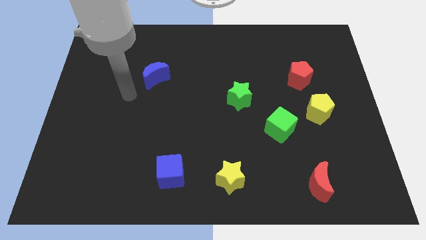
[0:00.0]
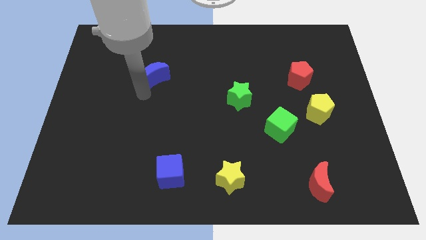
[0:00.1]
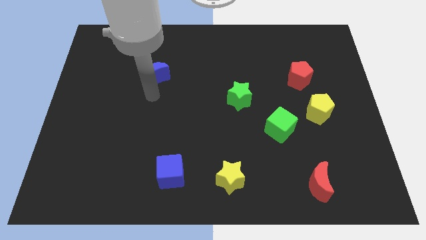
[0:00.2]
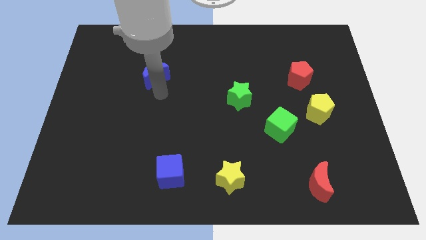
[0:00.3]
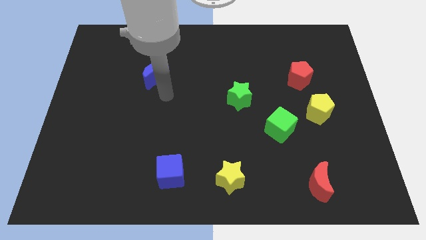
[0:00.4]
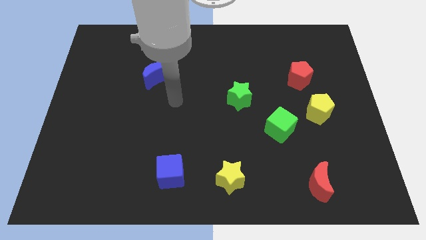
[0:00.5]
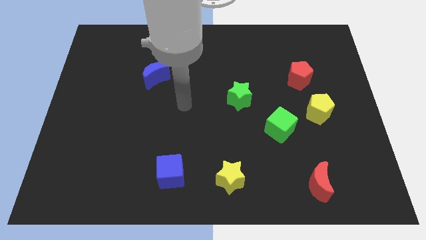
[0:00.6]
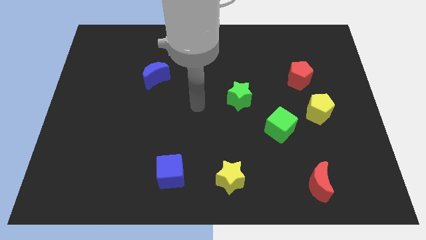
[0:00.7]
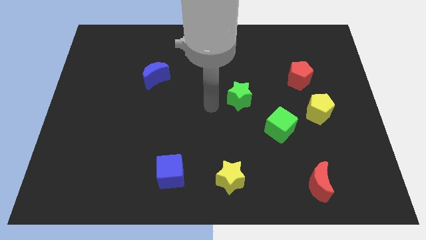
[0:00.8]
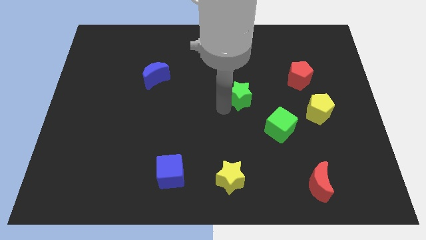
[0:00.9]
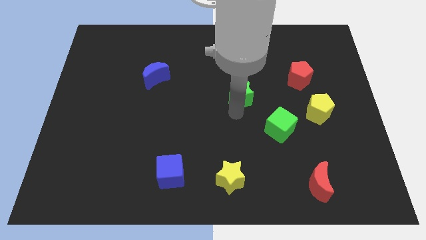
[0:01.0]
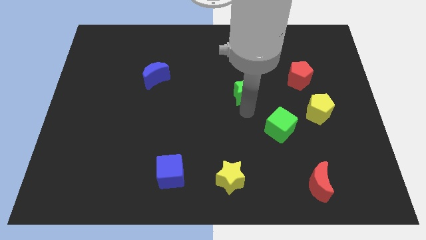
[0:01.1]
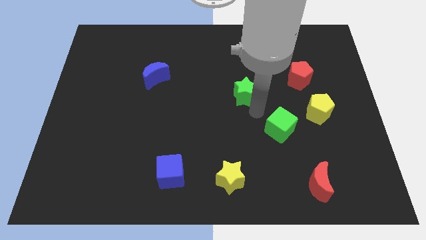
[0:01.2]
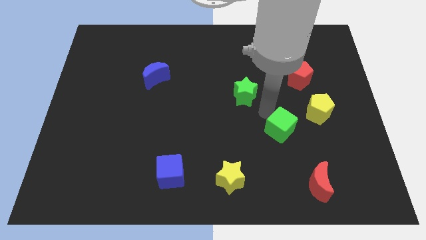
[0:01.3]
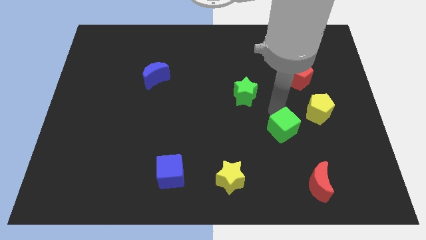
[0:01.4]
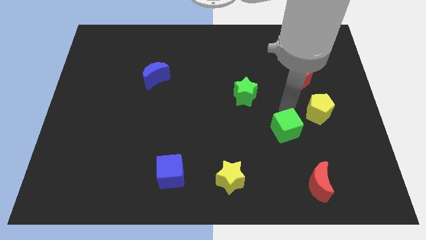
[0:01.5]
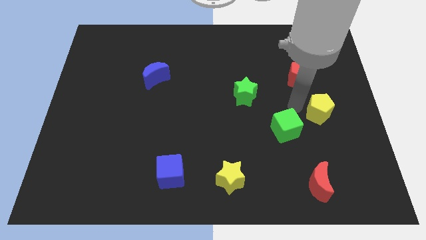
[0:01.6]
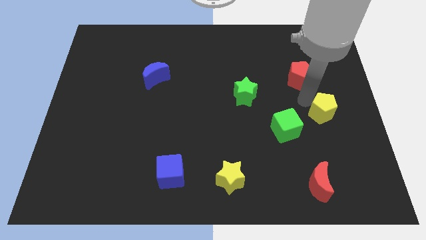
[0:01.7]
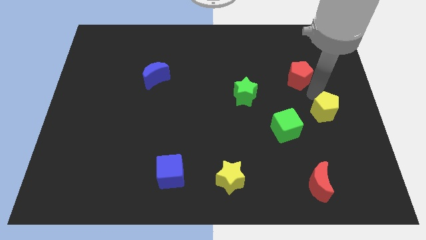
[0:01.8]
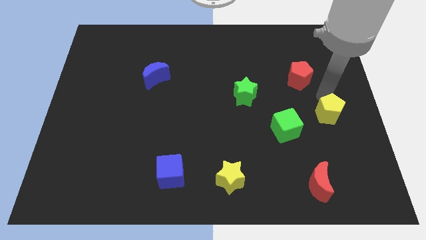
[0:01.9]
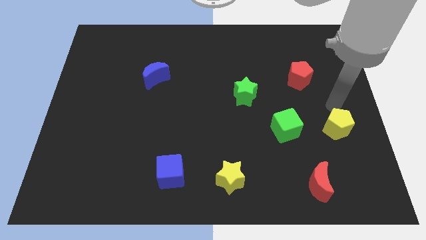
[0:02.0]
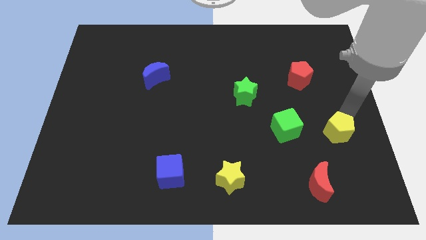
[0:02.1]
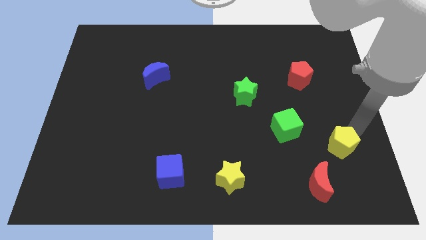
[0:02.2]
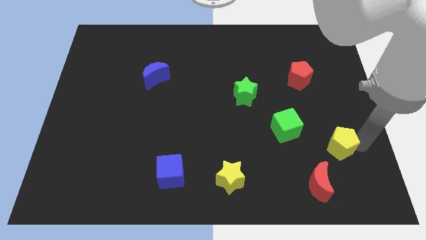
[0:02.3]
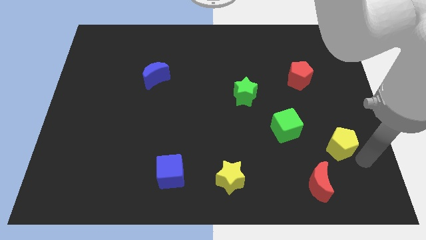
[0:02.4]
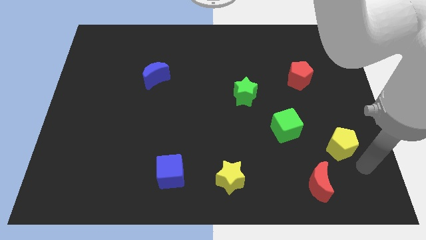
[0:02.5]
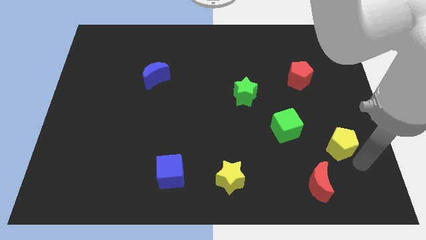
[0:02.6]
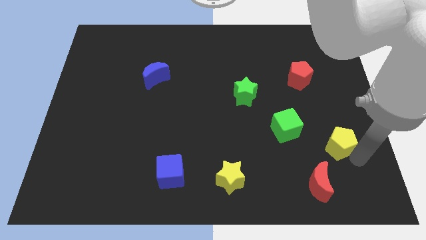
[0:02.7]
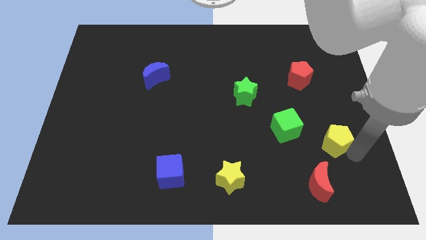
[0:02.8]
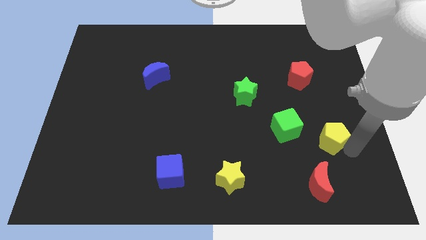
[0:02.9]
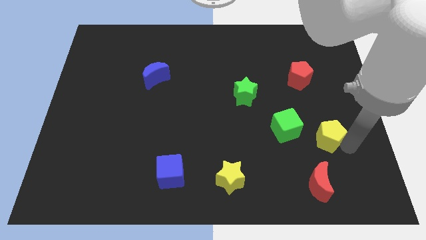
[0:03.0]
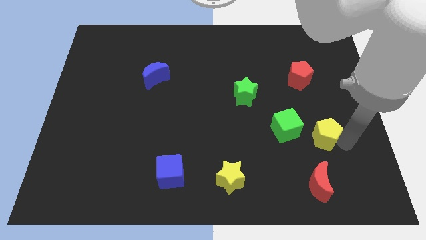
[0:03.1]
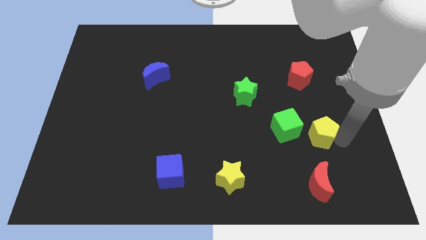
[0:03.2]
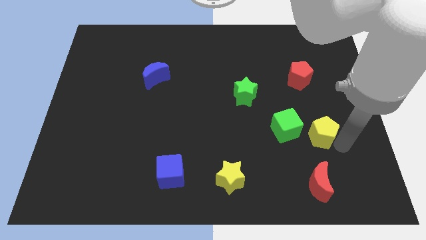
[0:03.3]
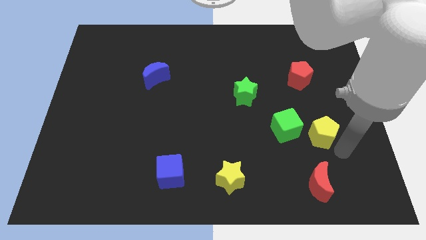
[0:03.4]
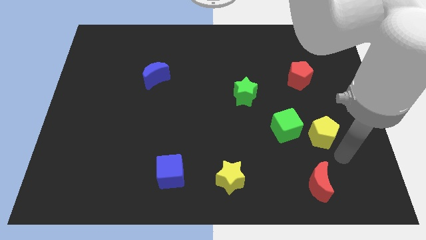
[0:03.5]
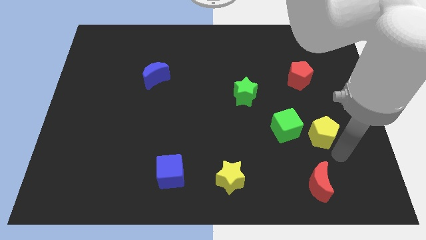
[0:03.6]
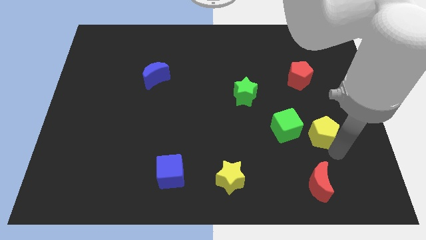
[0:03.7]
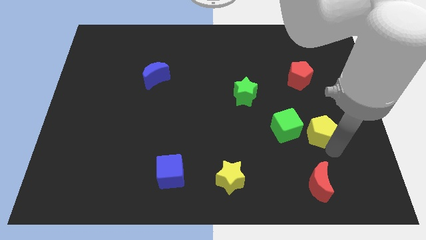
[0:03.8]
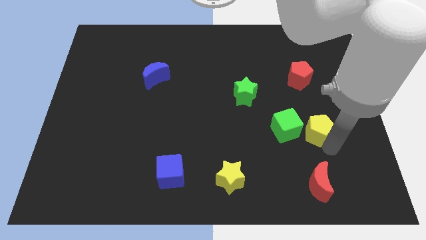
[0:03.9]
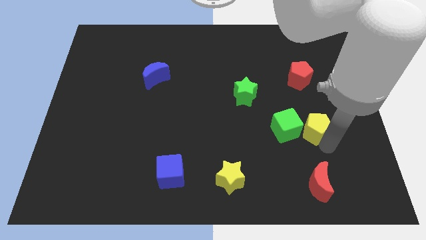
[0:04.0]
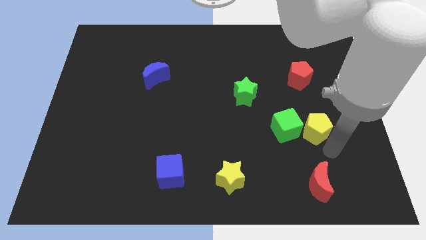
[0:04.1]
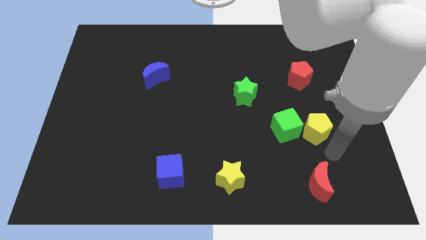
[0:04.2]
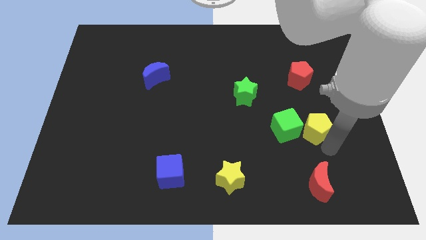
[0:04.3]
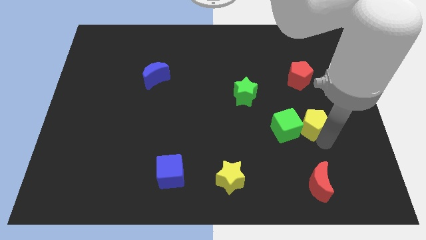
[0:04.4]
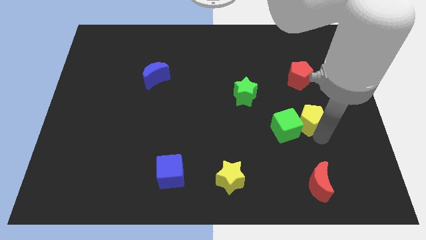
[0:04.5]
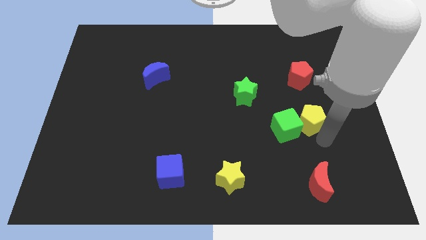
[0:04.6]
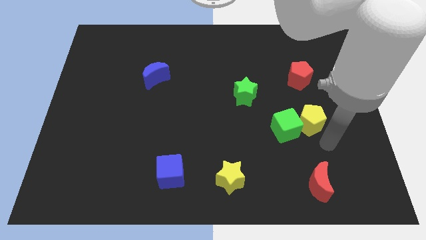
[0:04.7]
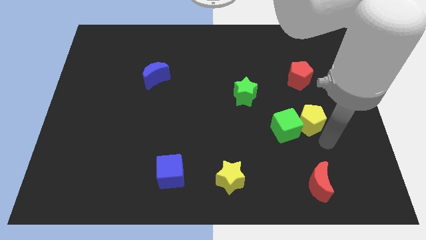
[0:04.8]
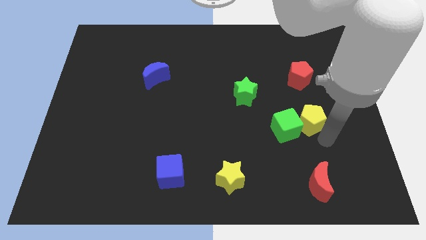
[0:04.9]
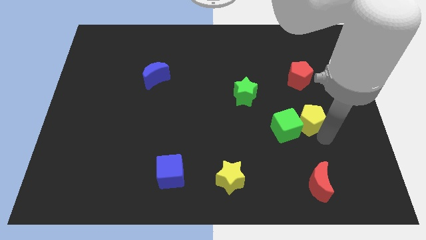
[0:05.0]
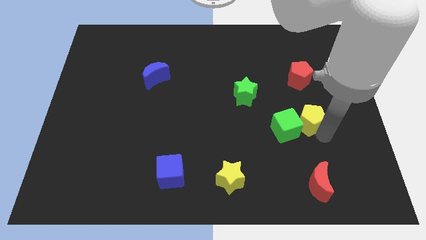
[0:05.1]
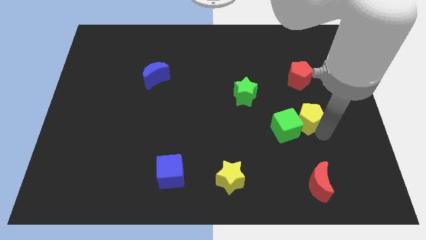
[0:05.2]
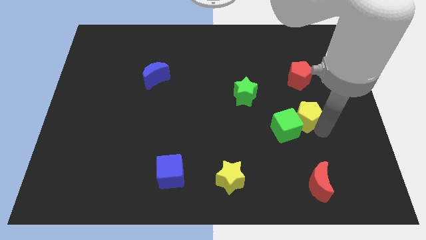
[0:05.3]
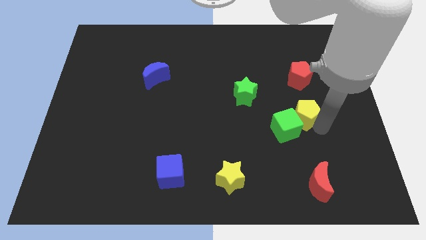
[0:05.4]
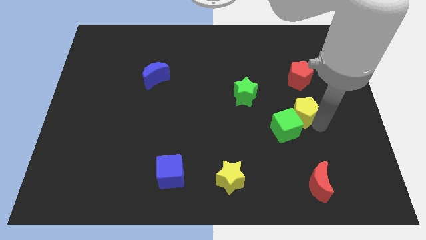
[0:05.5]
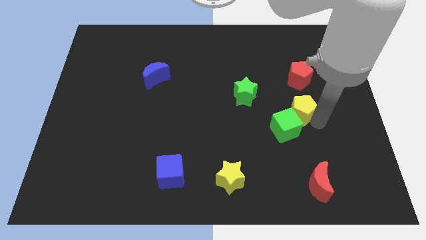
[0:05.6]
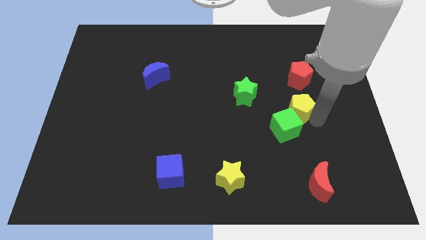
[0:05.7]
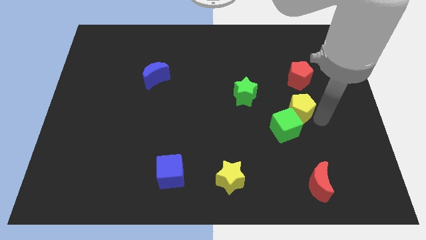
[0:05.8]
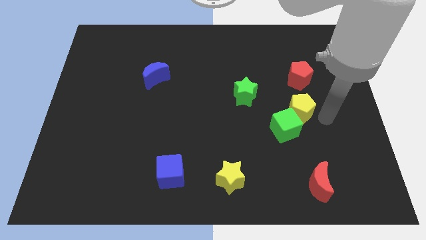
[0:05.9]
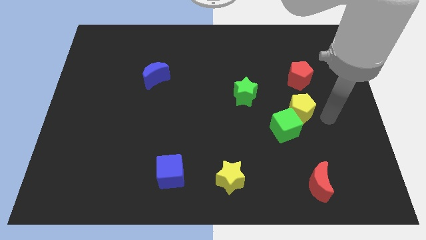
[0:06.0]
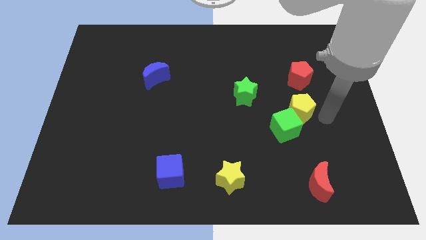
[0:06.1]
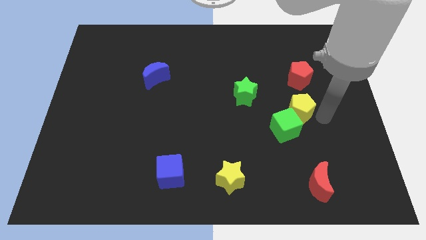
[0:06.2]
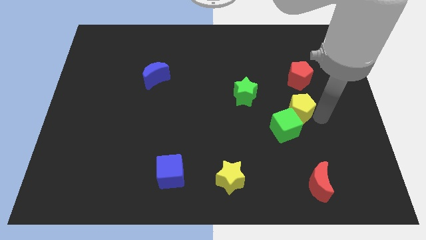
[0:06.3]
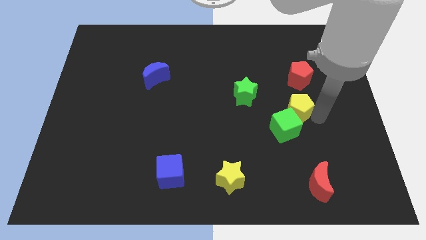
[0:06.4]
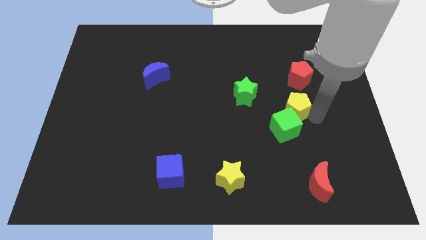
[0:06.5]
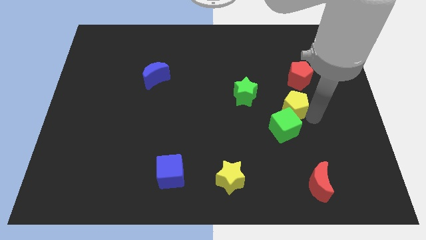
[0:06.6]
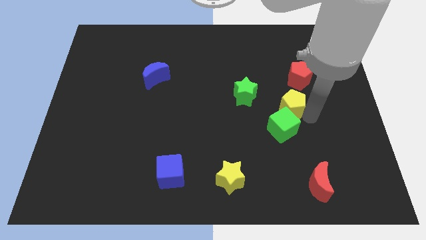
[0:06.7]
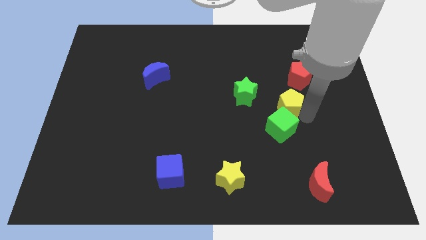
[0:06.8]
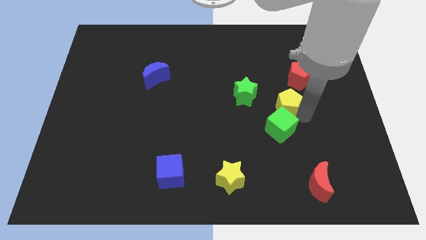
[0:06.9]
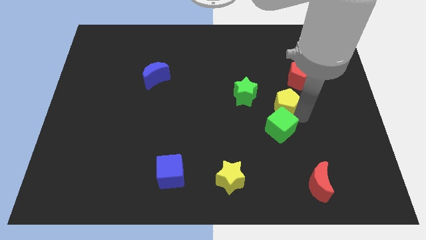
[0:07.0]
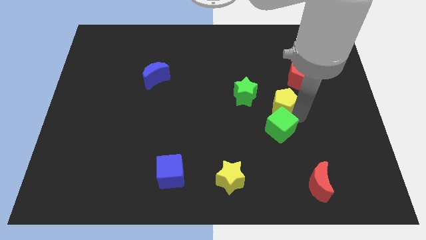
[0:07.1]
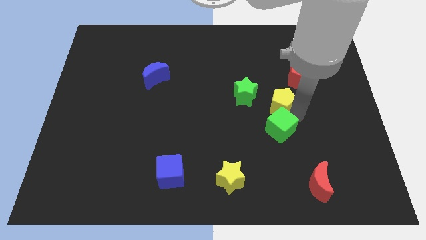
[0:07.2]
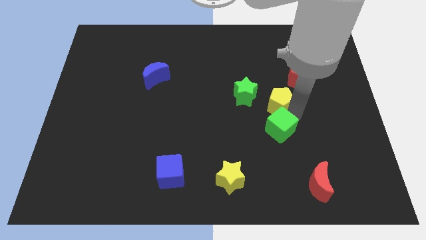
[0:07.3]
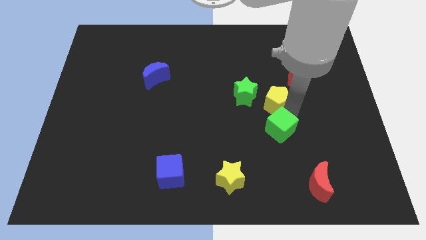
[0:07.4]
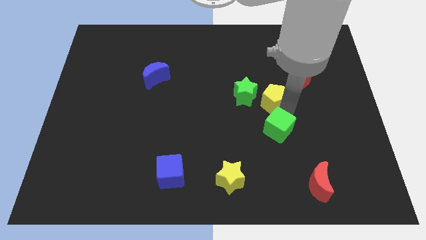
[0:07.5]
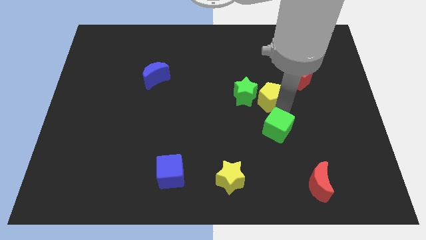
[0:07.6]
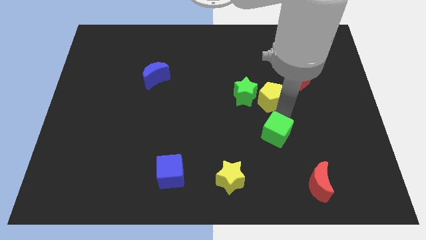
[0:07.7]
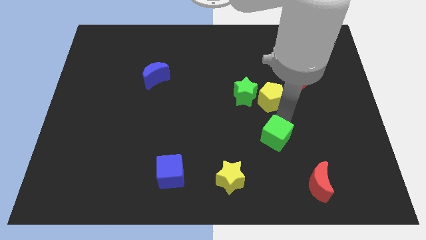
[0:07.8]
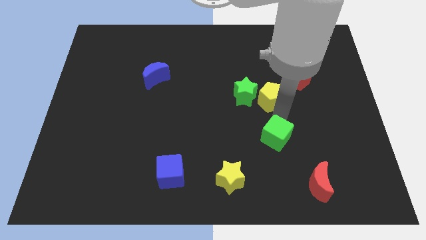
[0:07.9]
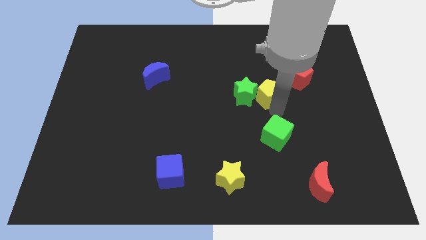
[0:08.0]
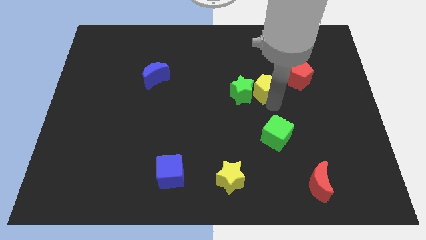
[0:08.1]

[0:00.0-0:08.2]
move the yellow pentagon just left of the red pentagon
